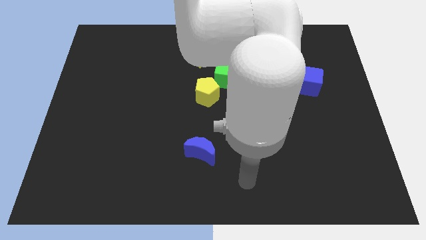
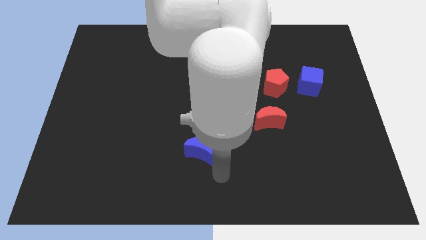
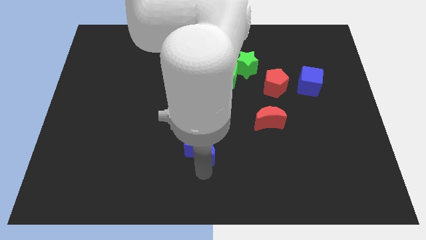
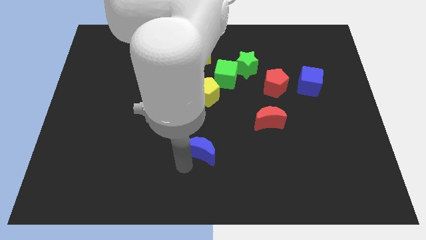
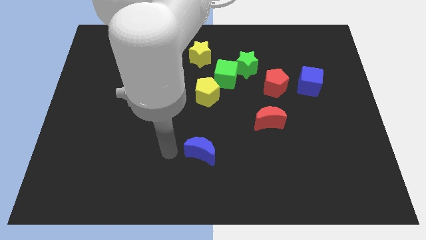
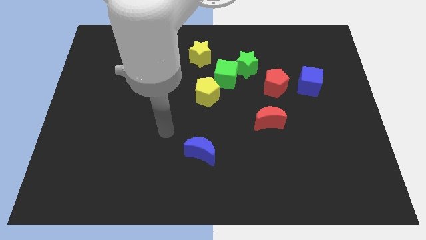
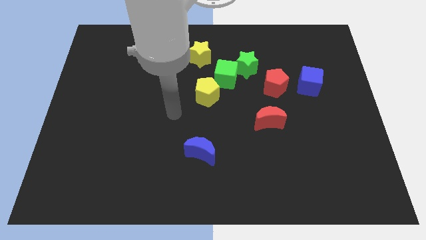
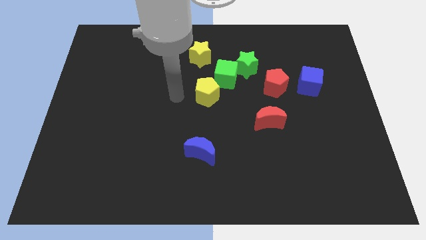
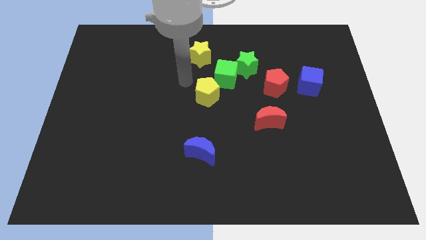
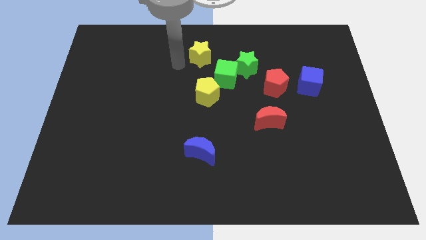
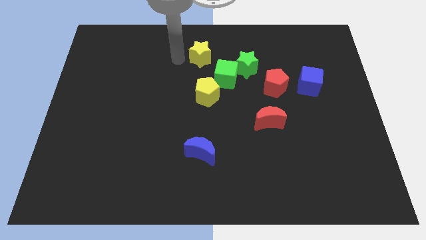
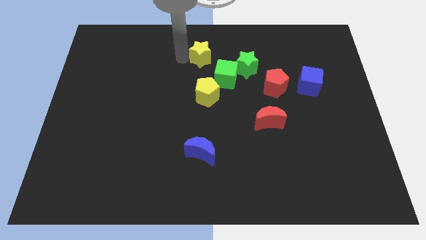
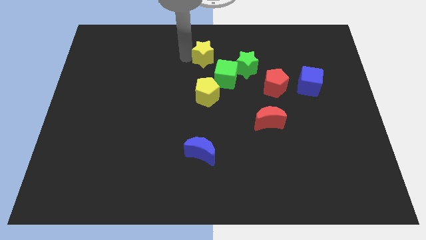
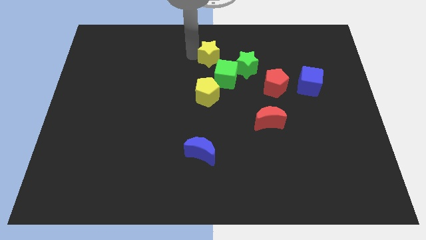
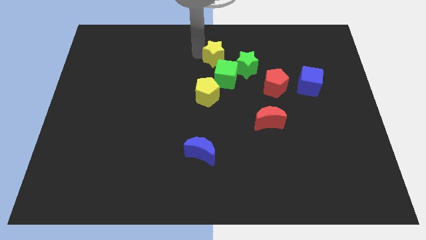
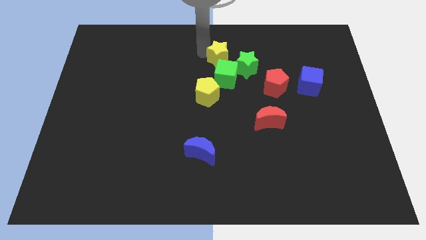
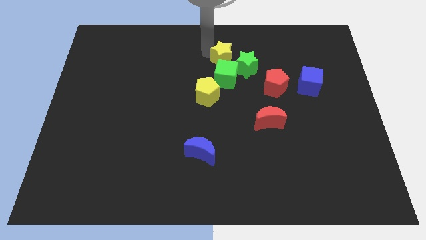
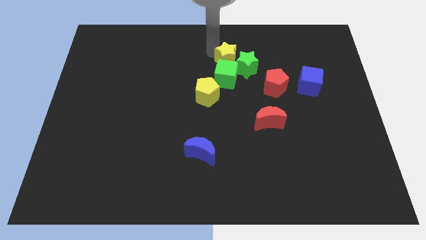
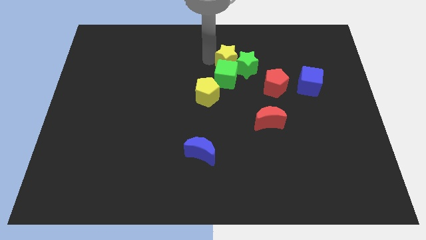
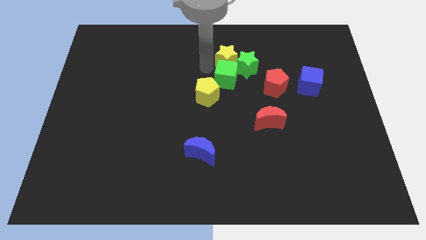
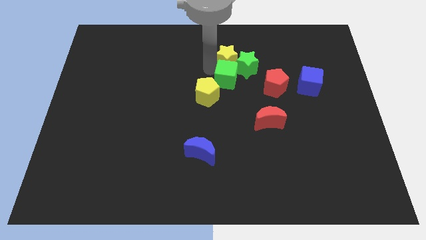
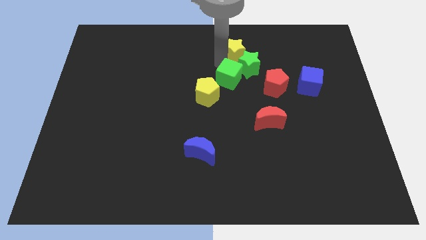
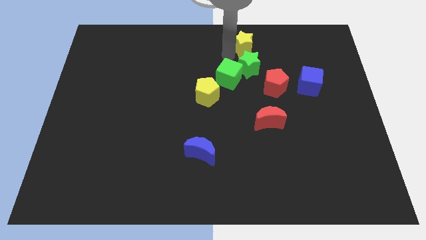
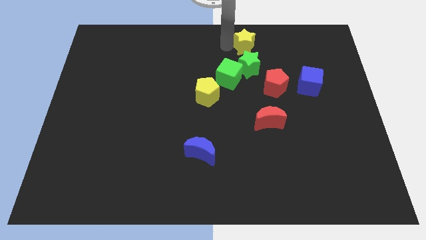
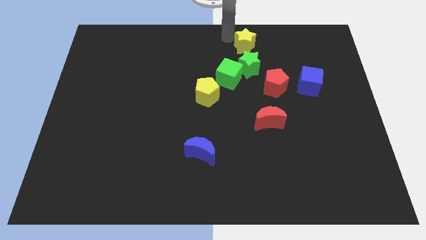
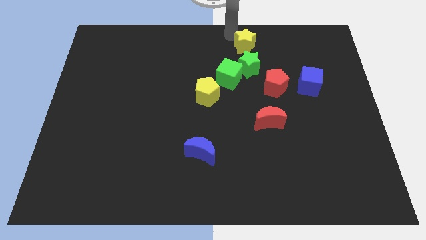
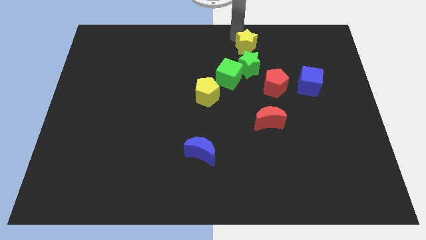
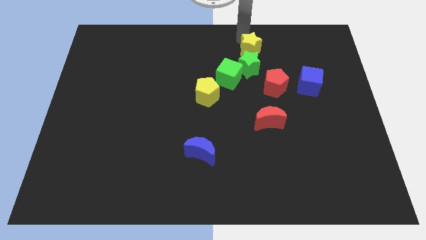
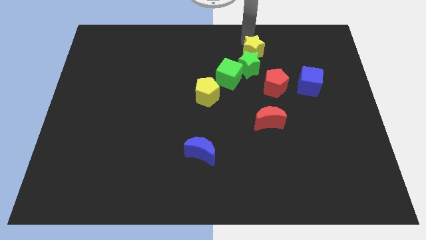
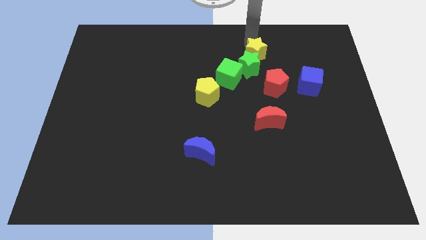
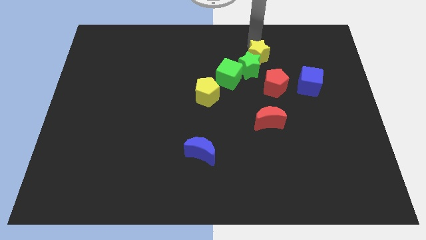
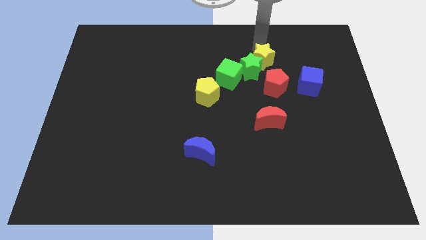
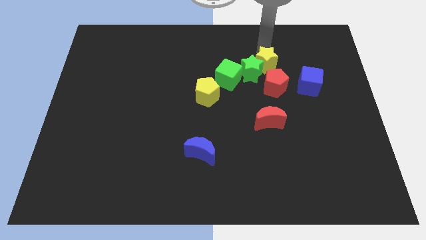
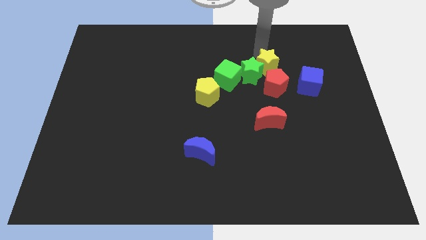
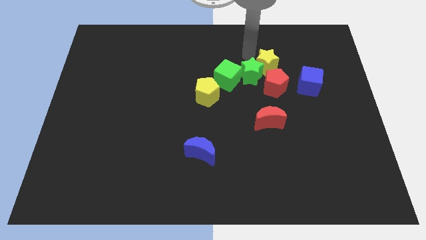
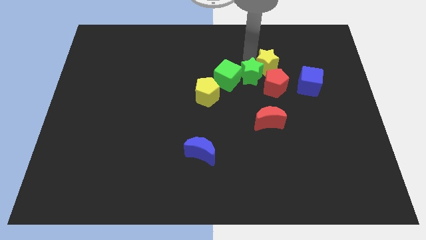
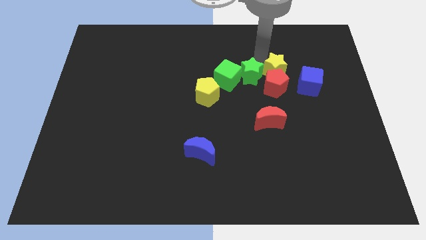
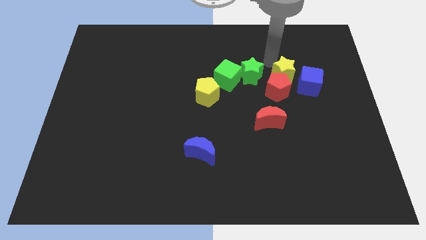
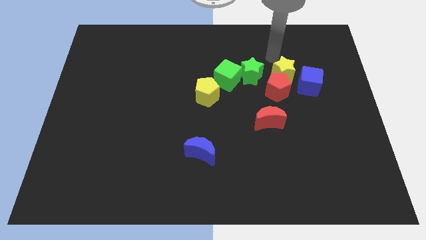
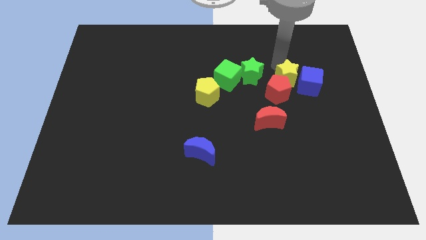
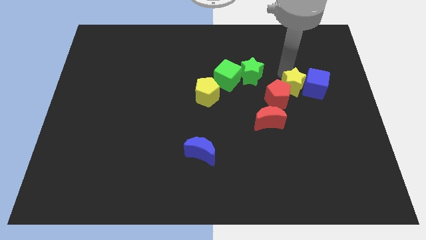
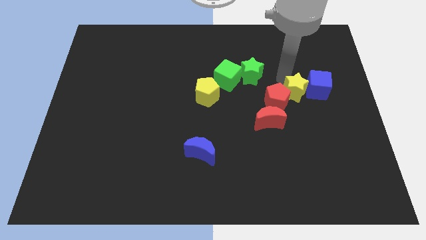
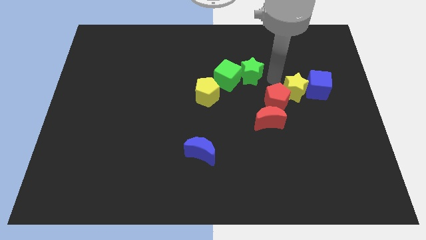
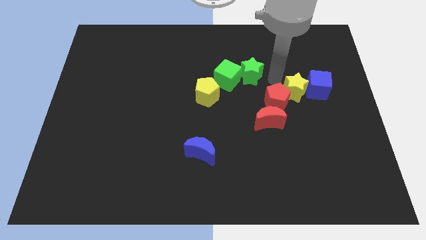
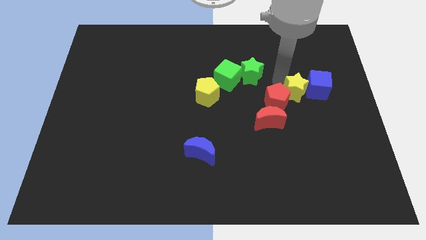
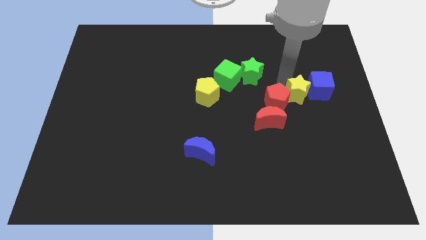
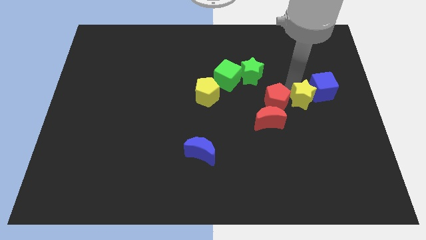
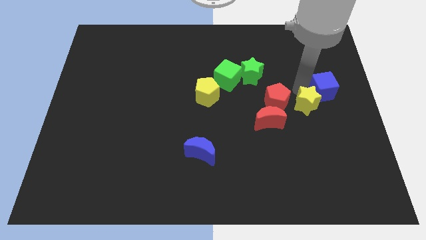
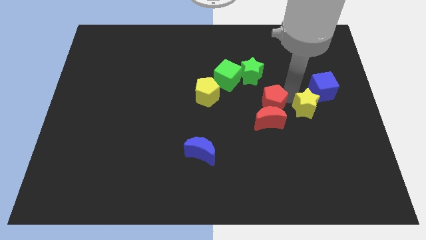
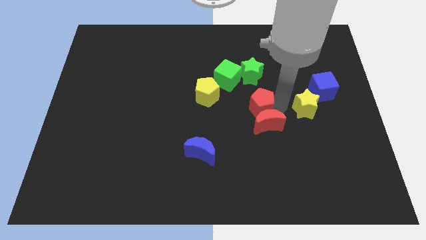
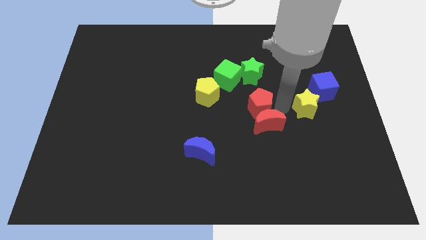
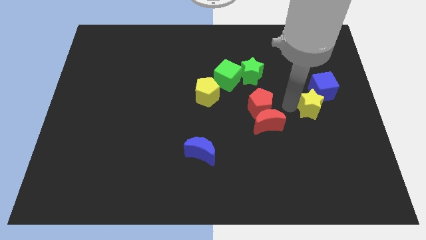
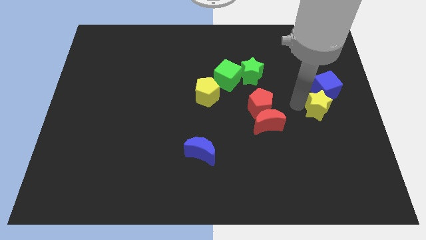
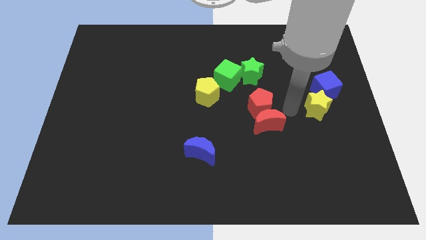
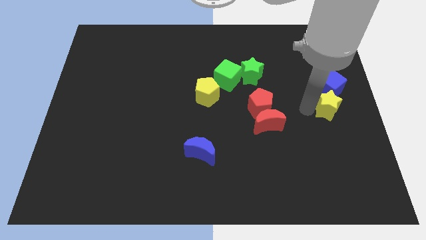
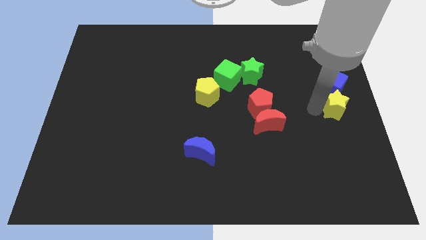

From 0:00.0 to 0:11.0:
push the yellow star to the bottom right side of the blue cube

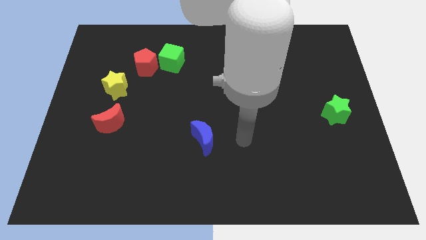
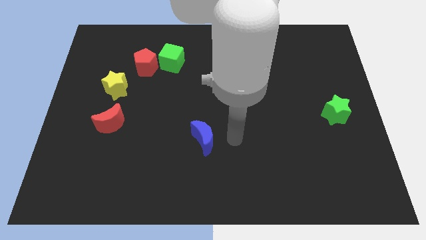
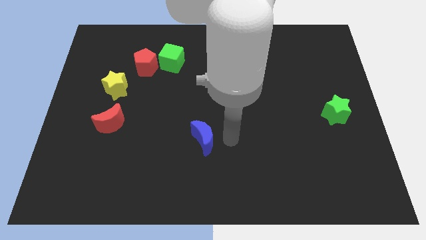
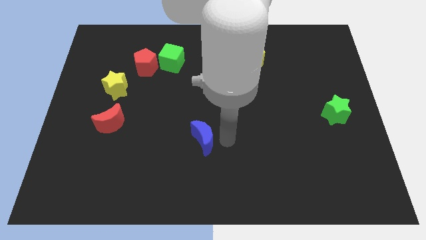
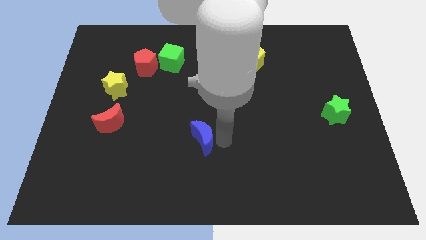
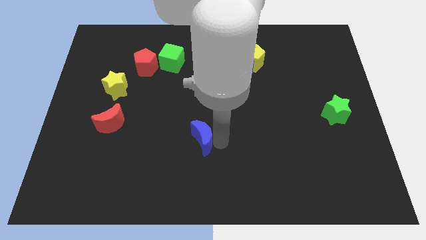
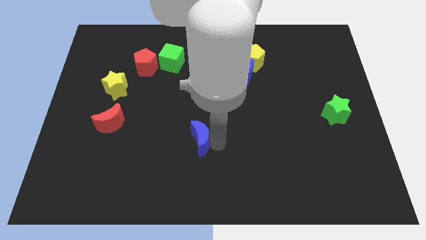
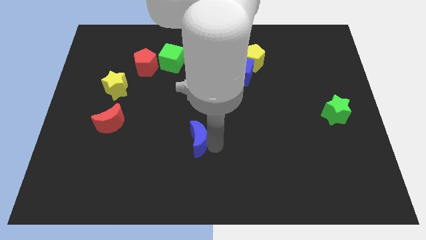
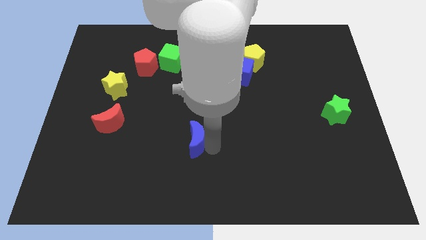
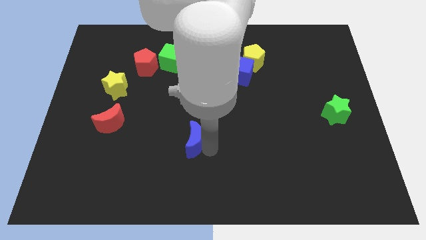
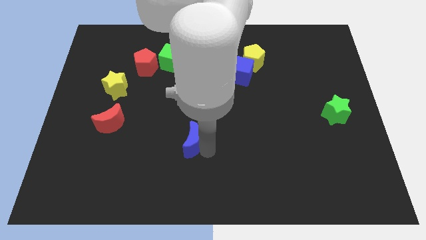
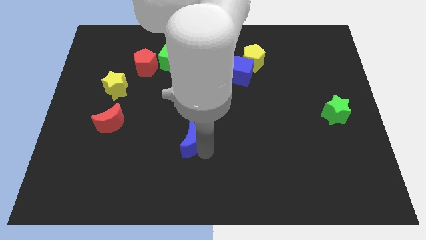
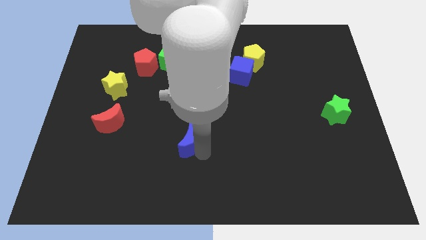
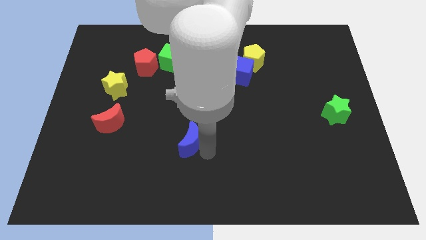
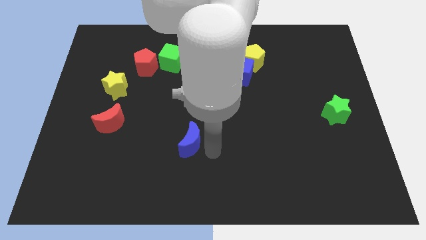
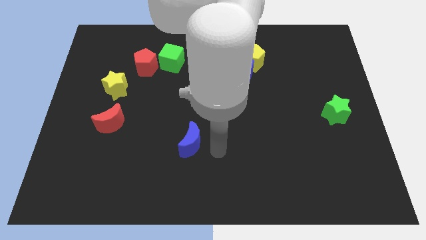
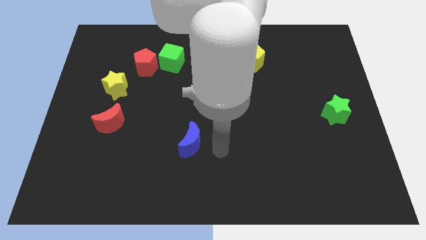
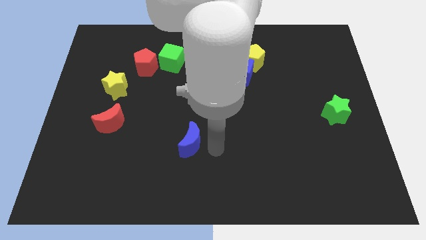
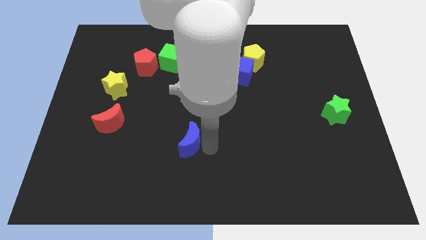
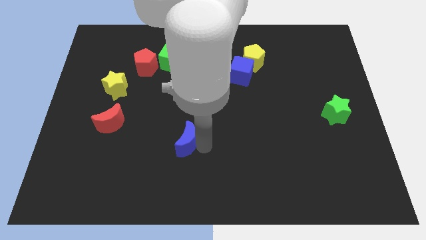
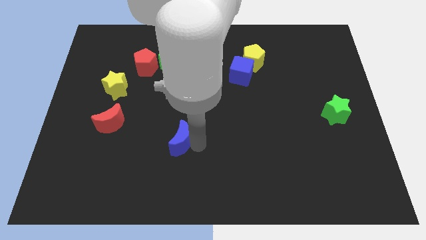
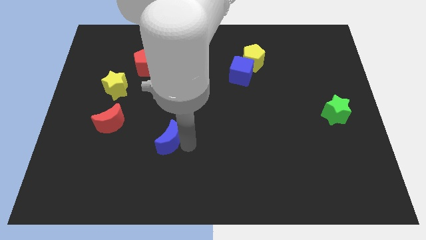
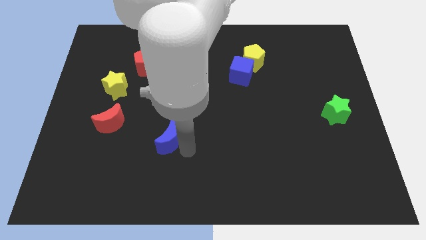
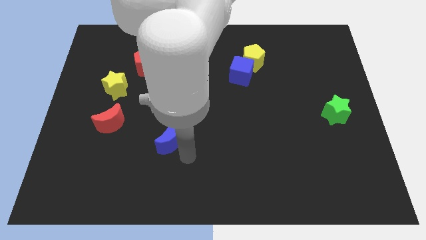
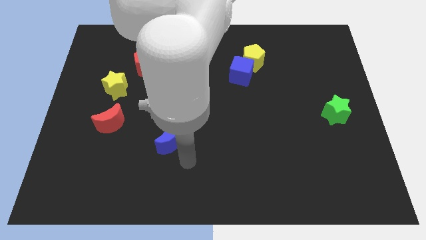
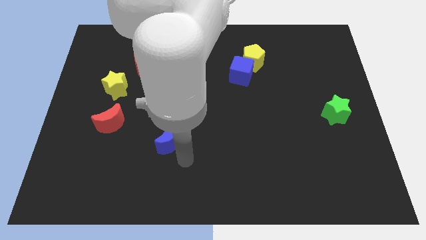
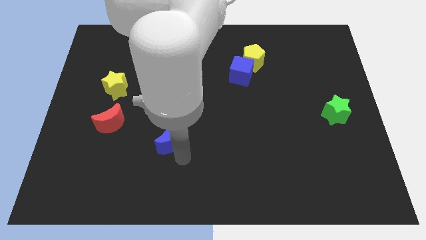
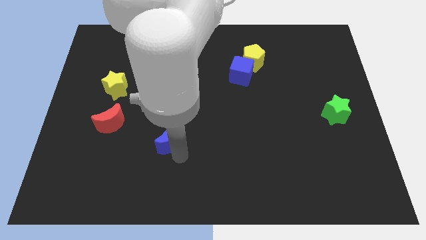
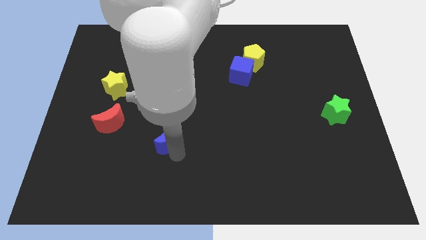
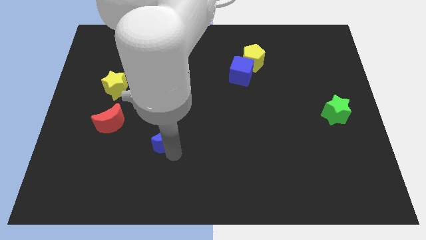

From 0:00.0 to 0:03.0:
put the blue moon to the right of the red moon
